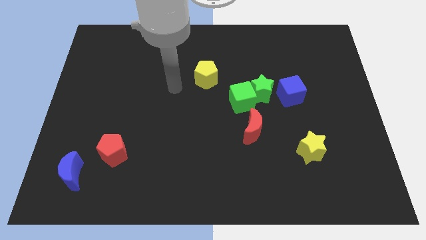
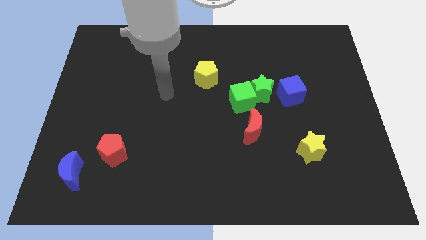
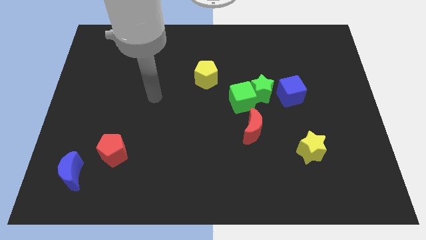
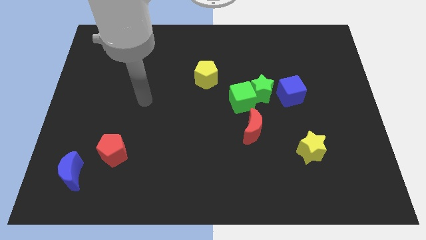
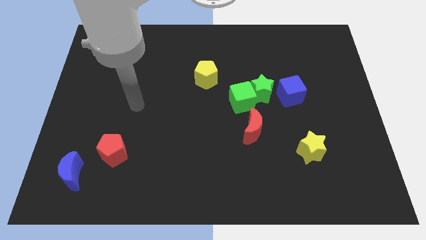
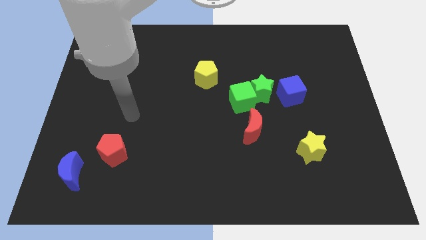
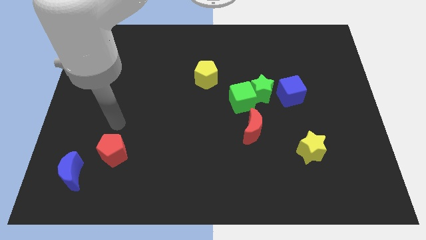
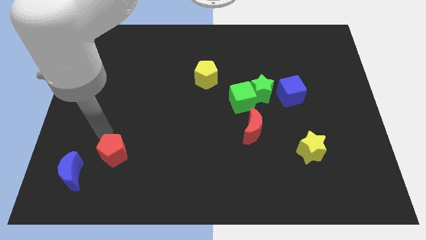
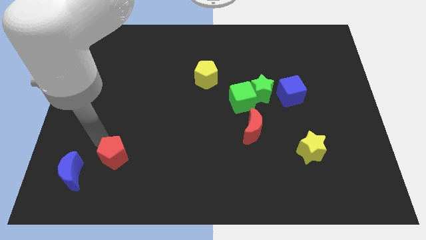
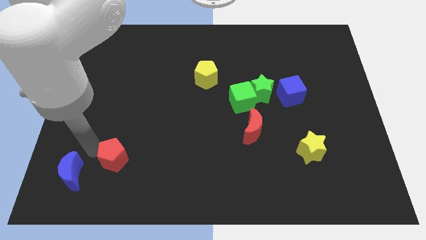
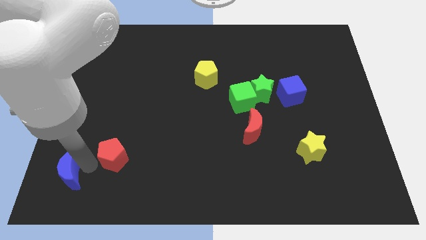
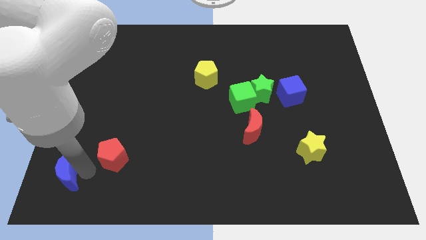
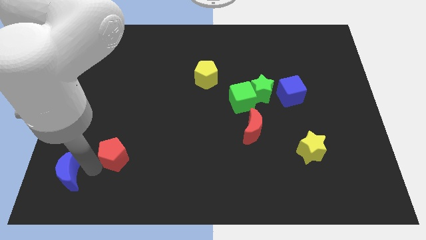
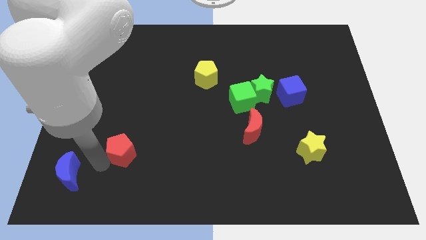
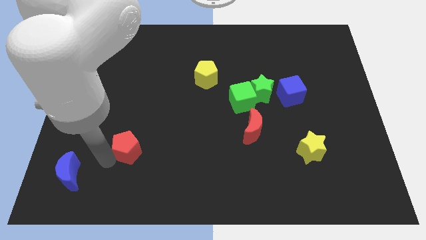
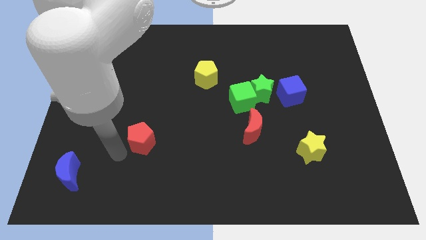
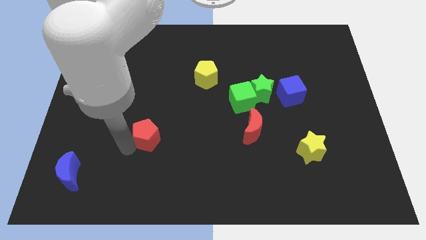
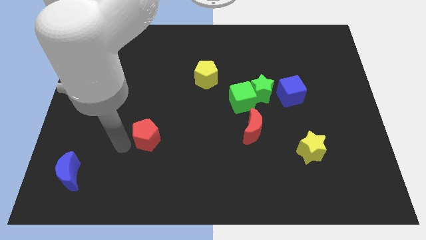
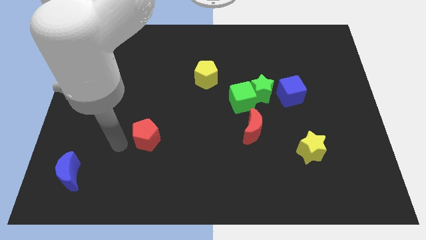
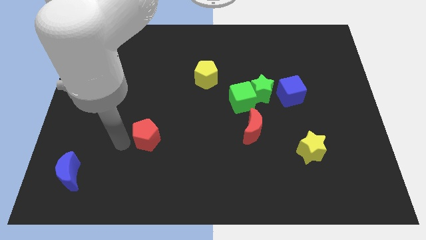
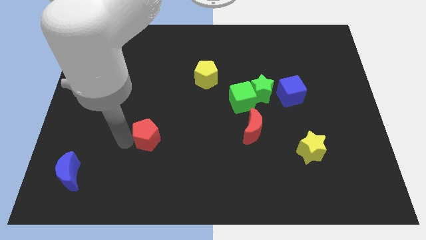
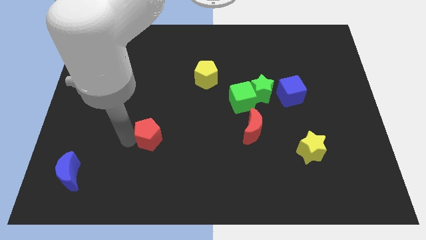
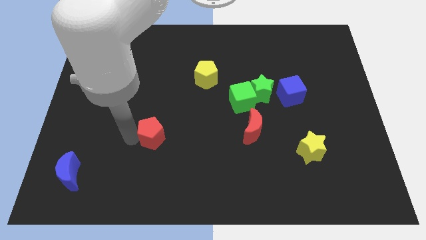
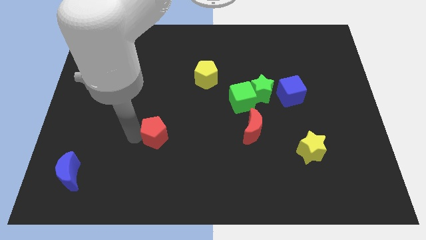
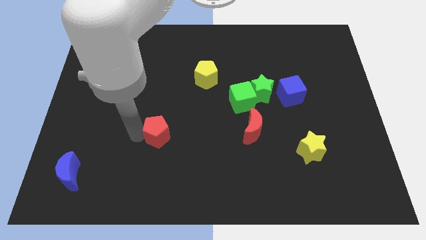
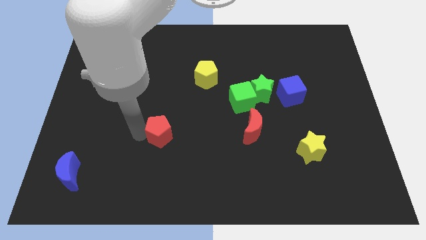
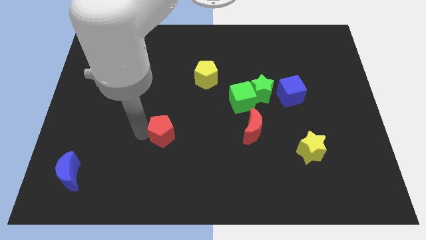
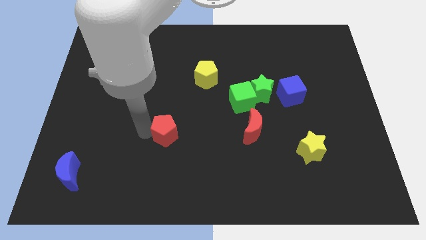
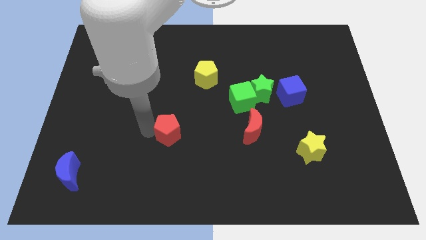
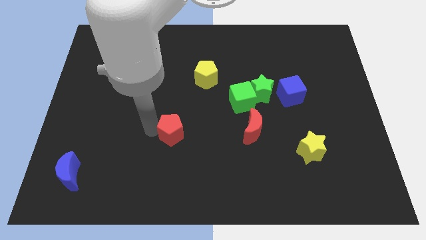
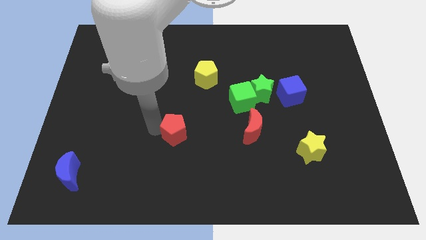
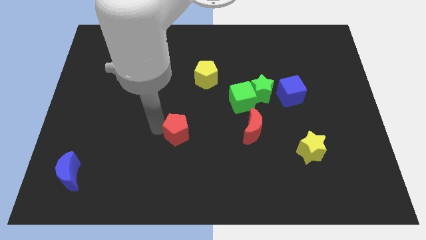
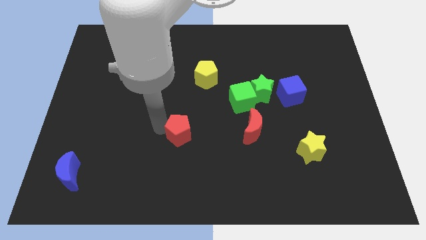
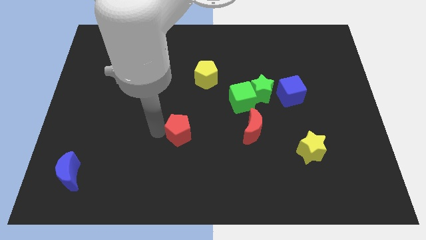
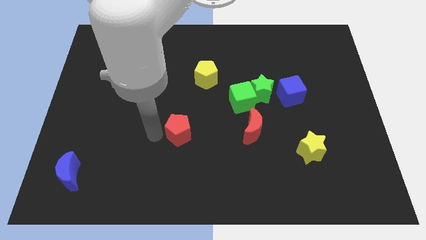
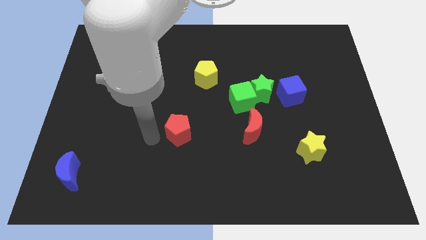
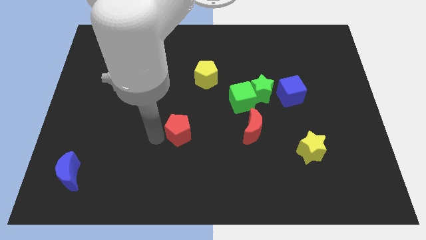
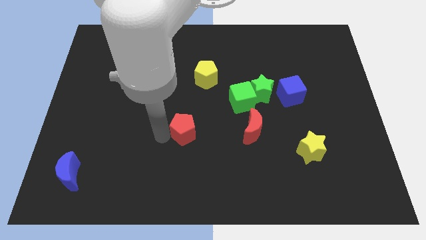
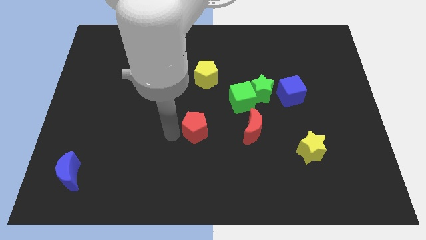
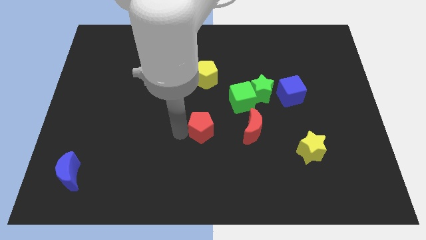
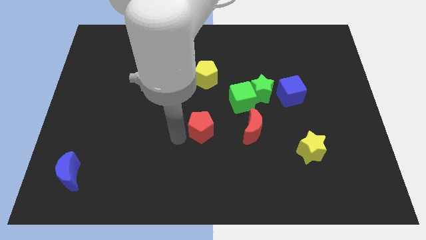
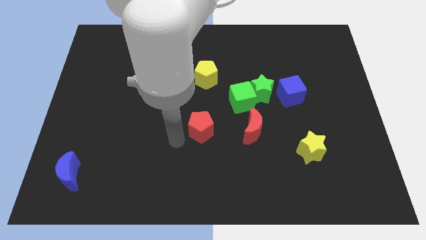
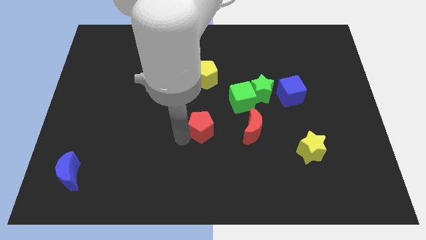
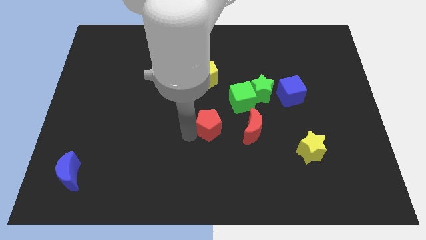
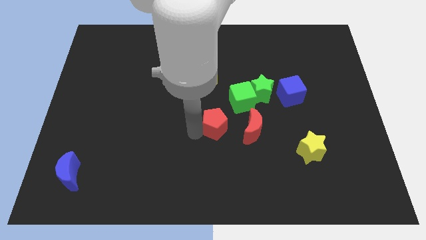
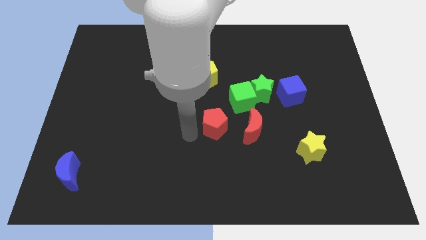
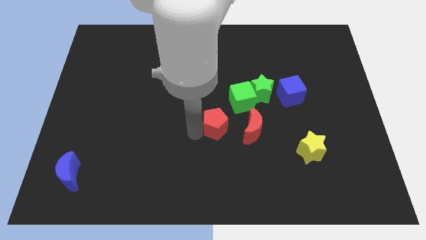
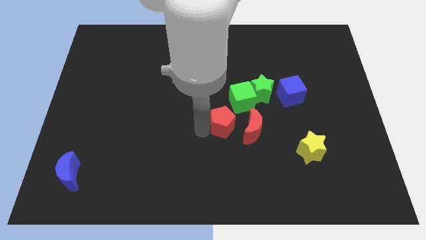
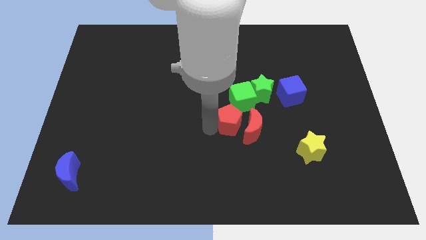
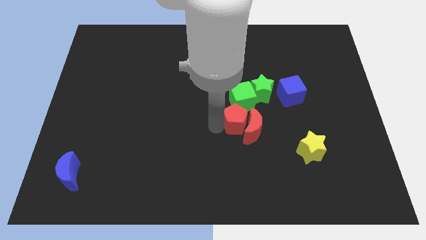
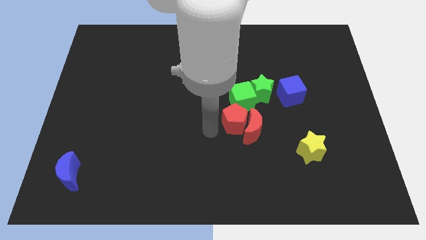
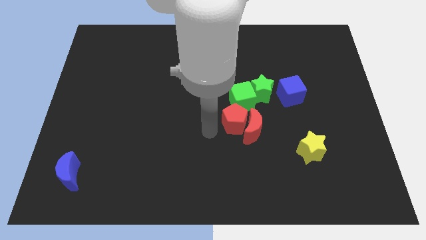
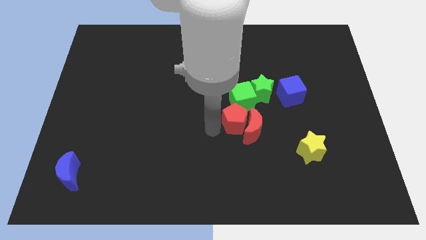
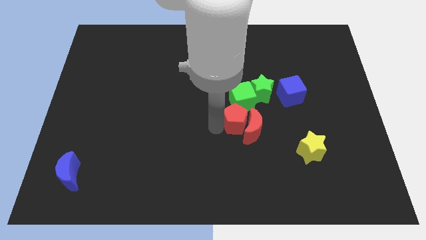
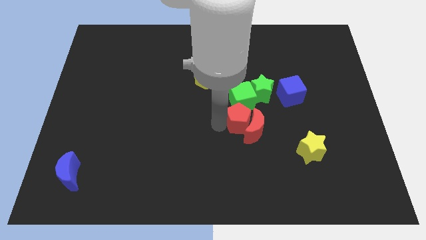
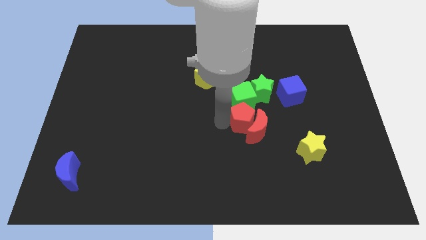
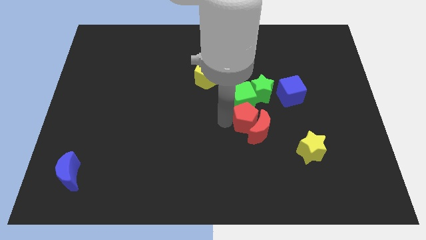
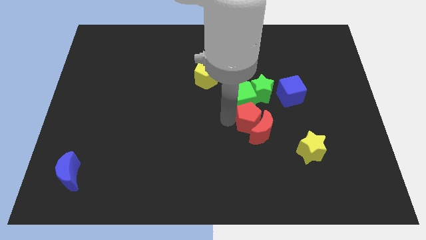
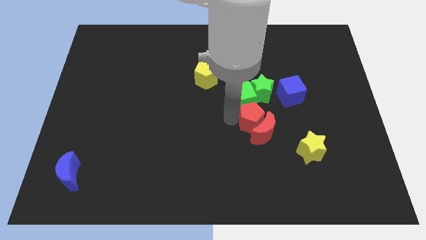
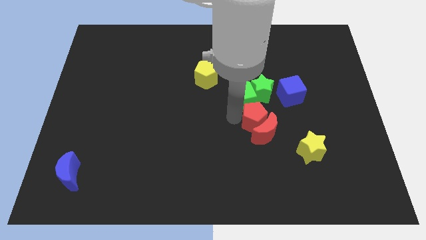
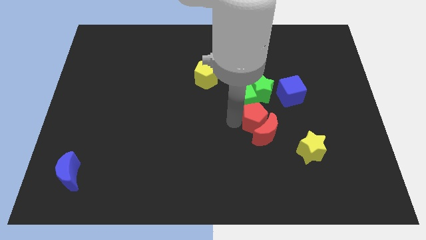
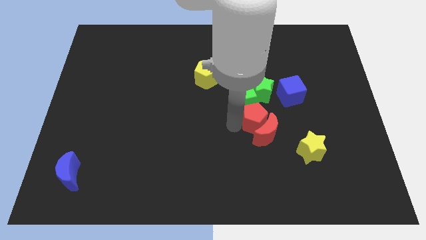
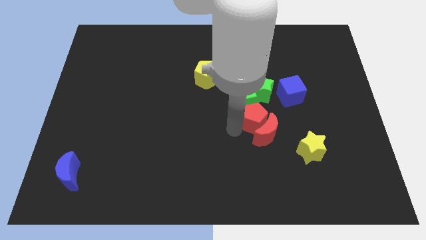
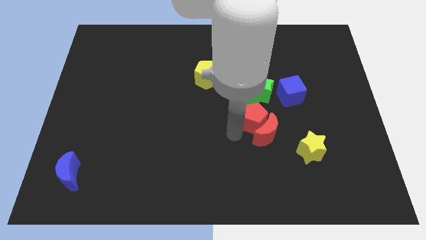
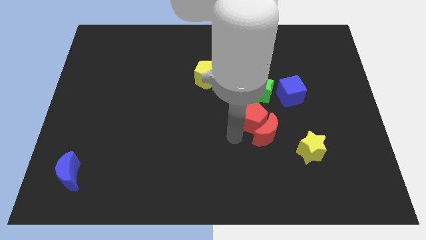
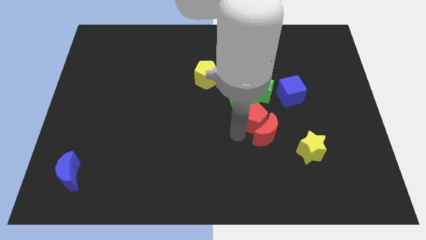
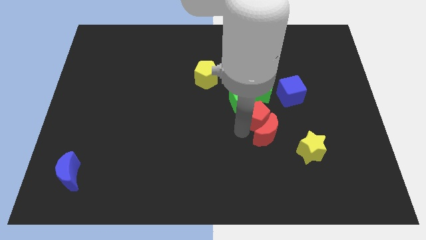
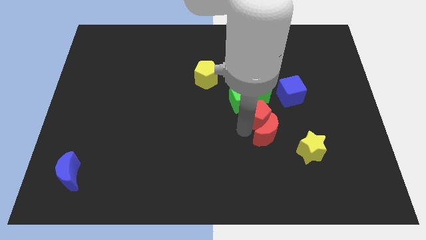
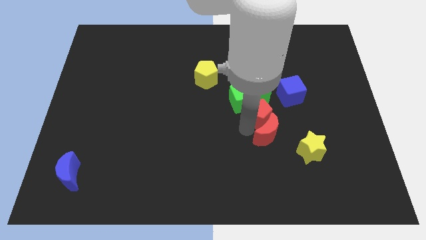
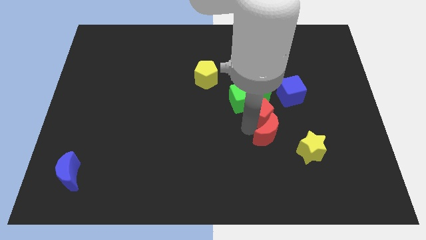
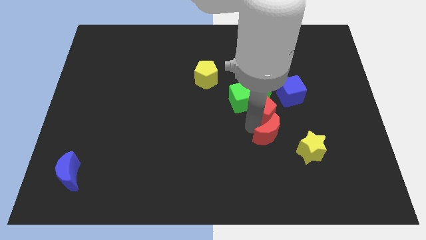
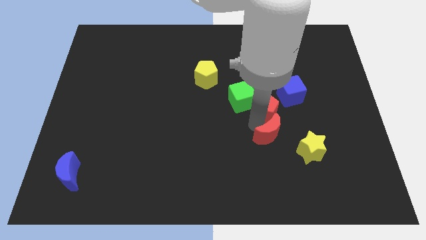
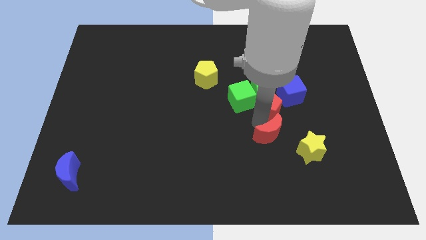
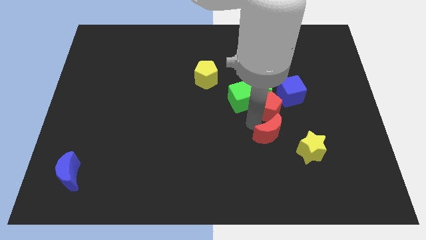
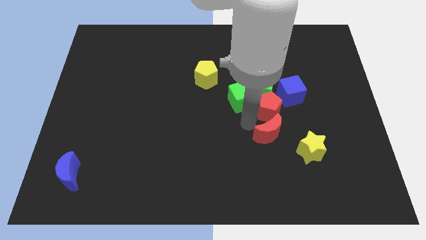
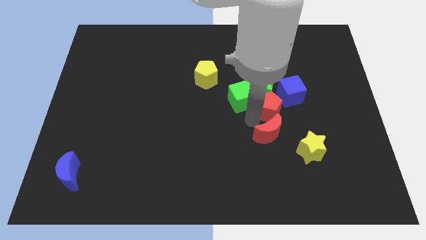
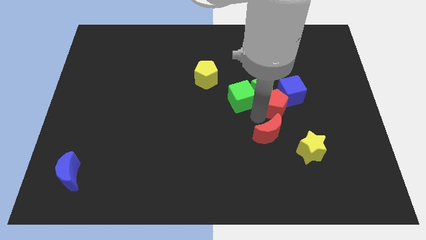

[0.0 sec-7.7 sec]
slide the red pentagon next to the blue cube

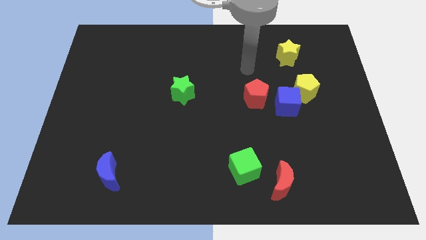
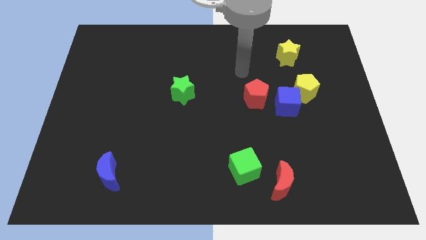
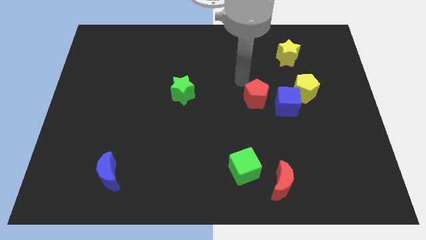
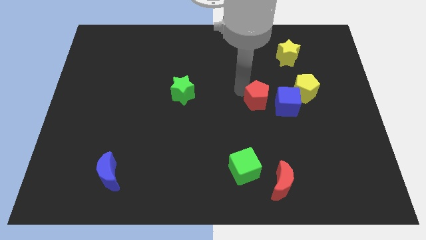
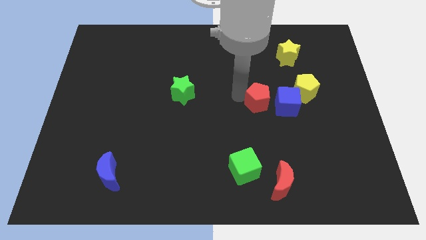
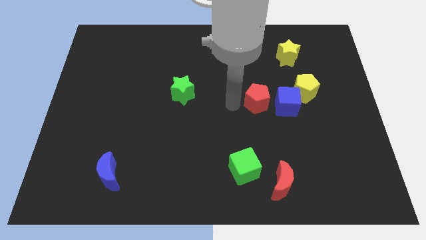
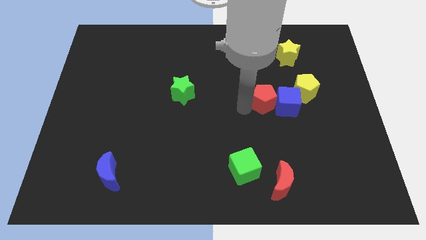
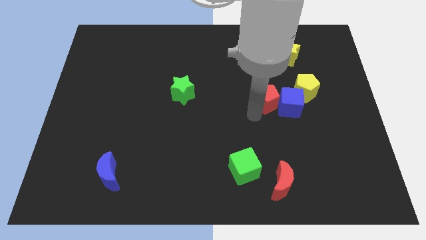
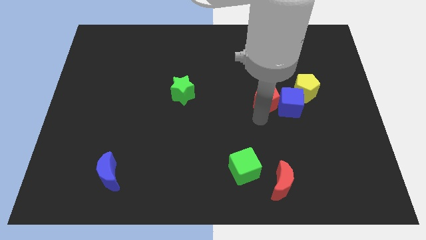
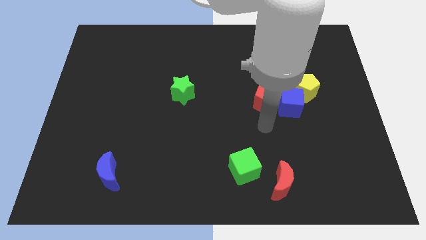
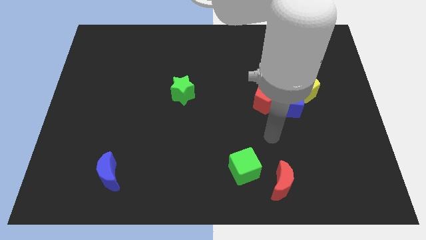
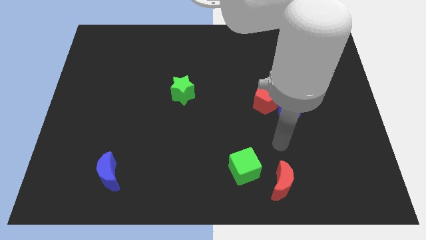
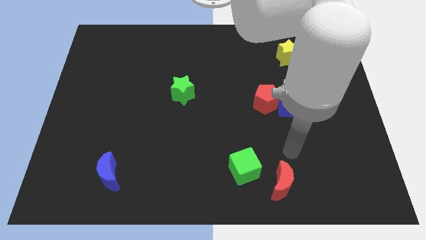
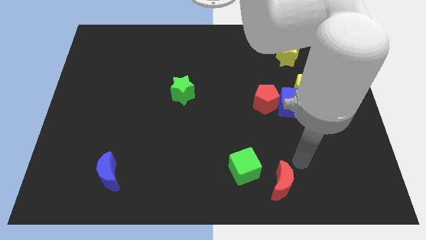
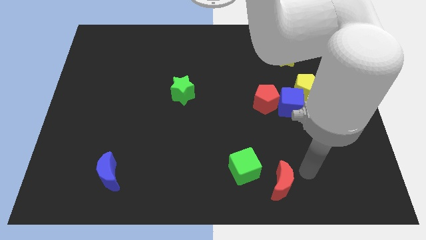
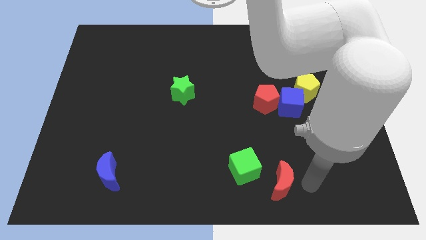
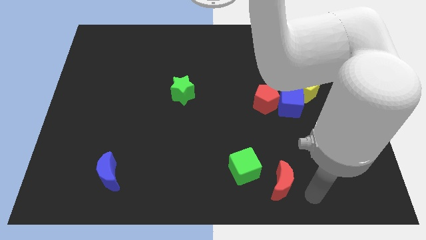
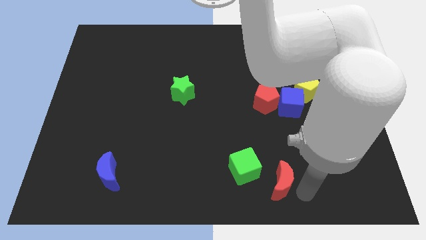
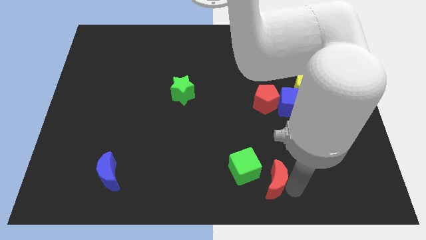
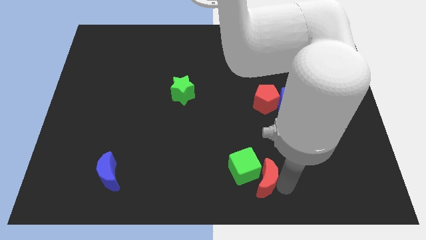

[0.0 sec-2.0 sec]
push the red moon close to the green cube
